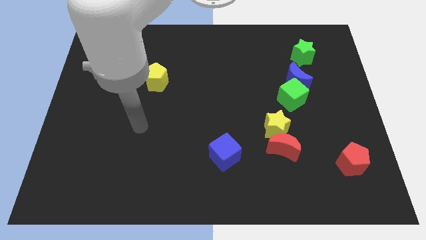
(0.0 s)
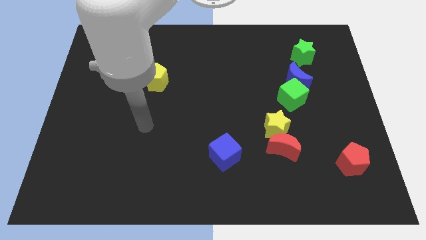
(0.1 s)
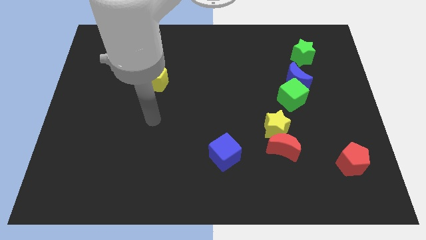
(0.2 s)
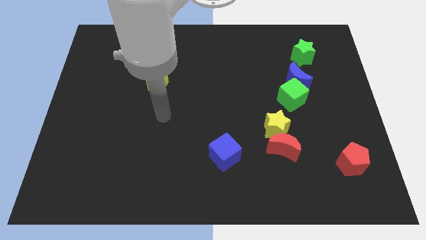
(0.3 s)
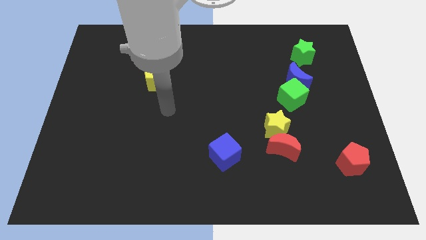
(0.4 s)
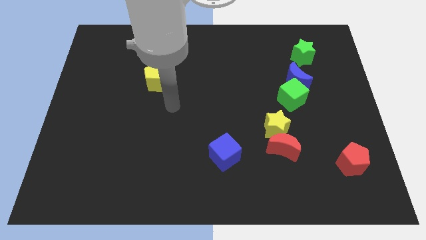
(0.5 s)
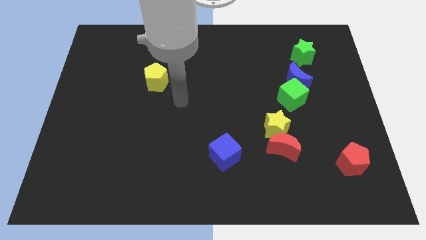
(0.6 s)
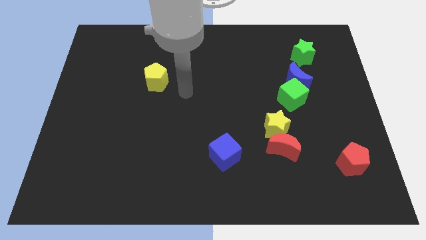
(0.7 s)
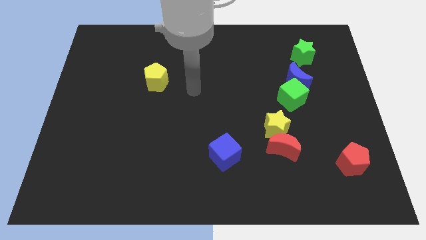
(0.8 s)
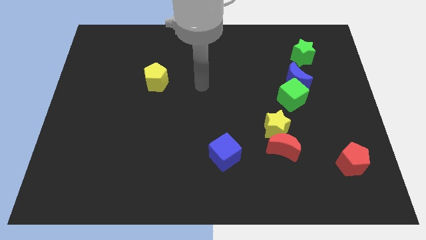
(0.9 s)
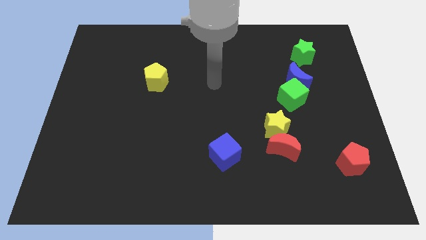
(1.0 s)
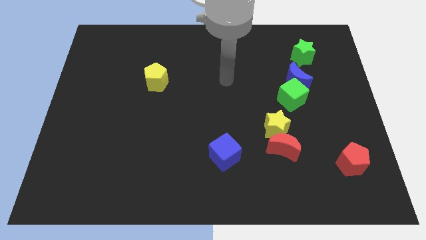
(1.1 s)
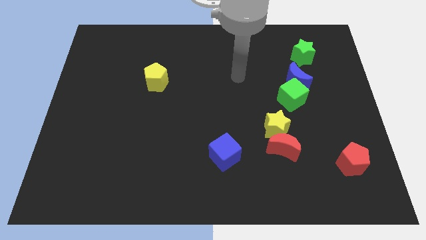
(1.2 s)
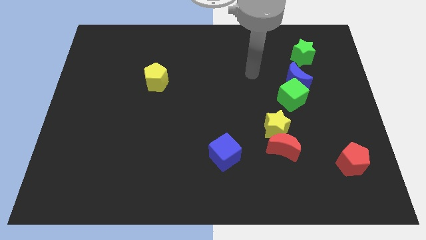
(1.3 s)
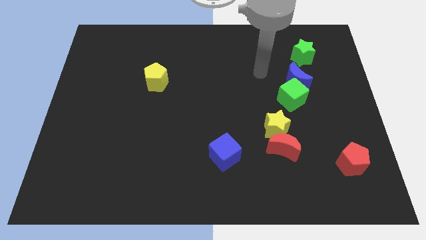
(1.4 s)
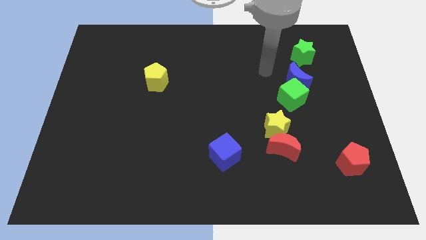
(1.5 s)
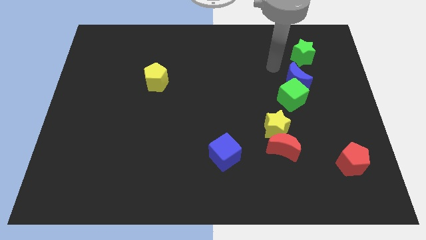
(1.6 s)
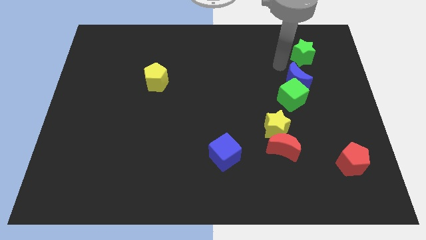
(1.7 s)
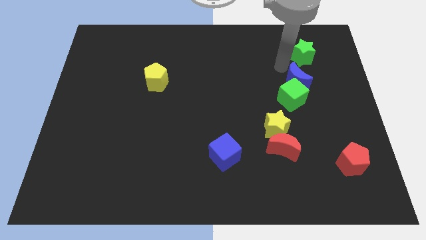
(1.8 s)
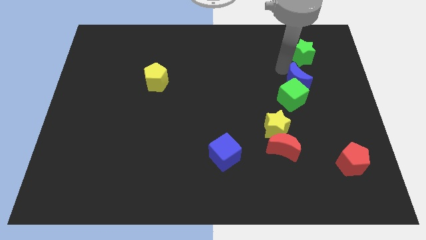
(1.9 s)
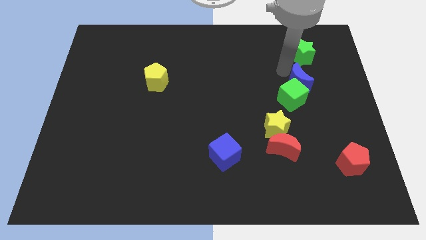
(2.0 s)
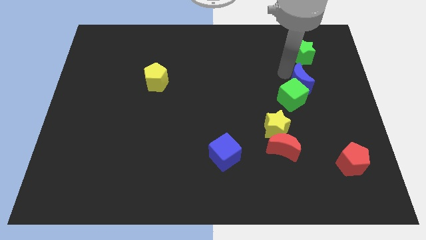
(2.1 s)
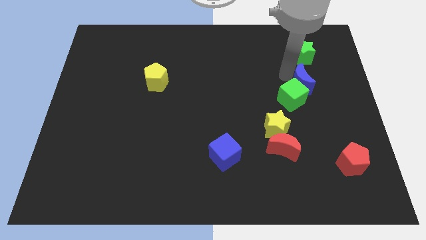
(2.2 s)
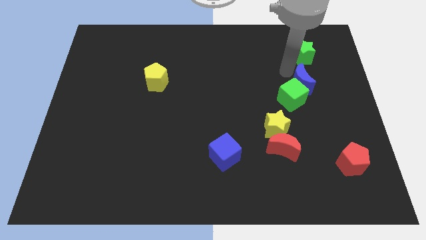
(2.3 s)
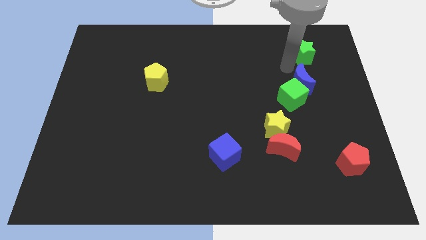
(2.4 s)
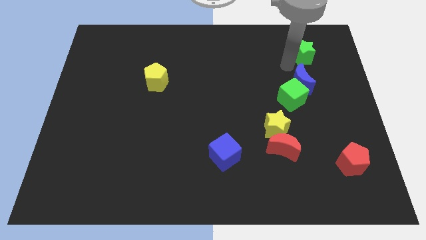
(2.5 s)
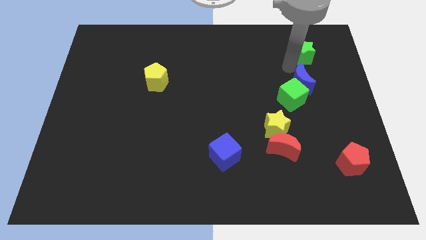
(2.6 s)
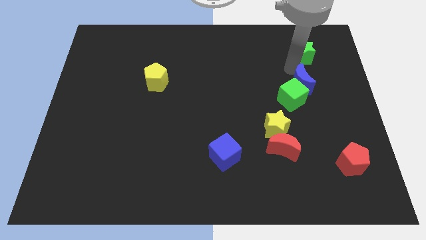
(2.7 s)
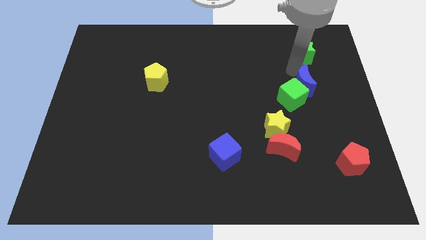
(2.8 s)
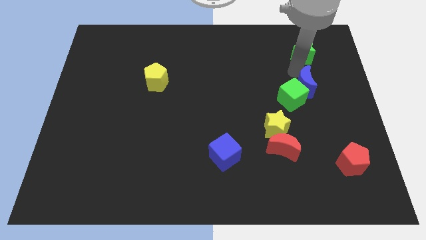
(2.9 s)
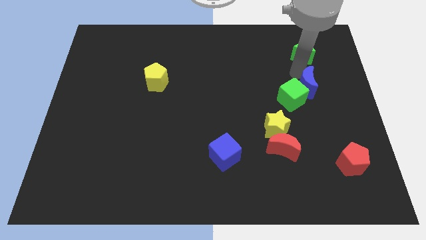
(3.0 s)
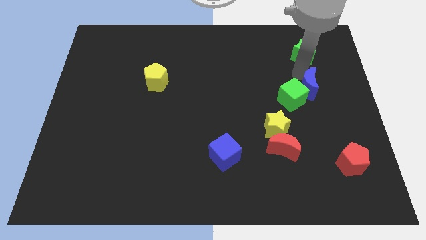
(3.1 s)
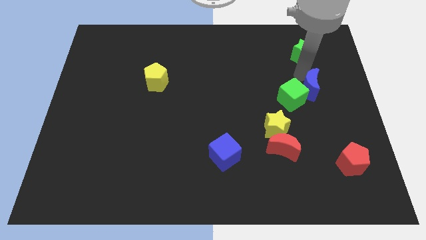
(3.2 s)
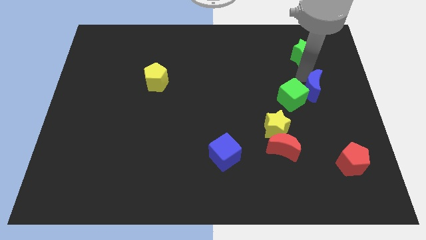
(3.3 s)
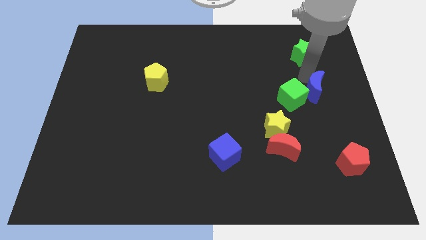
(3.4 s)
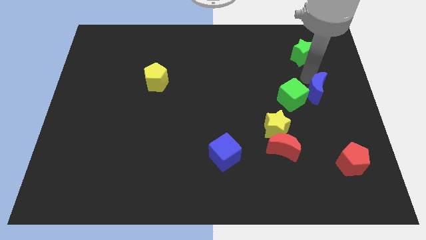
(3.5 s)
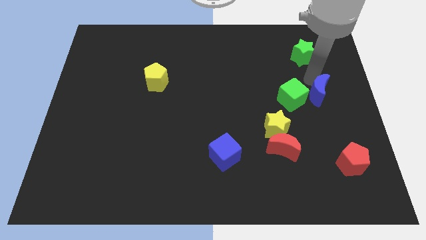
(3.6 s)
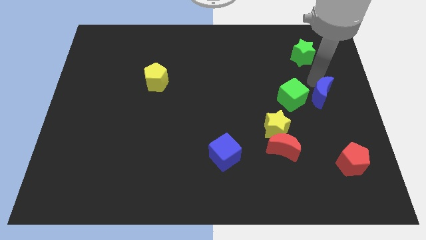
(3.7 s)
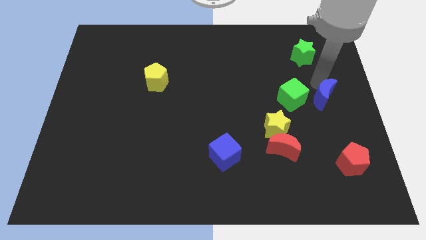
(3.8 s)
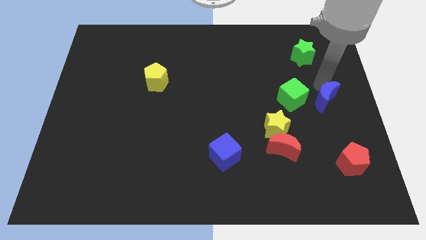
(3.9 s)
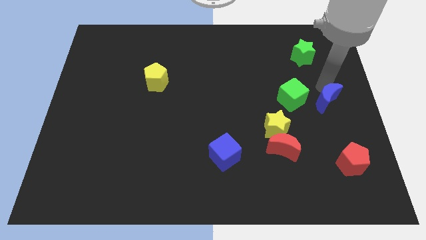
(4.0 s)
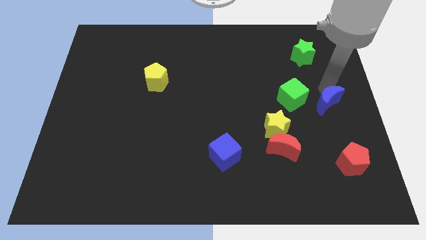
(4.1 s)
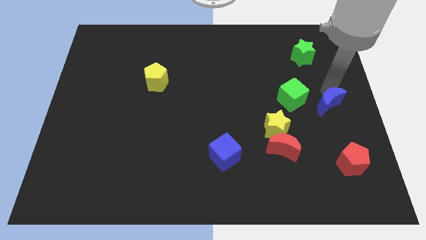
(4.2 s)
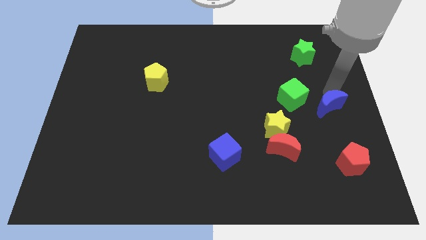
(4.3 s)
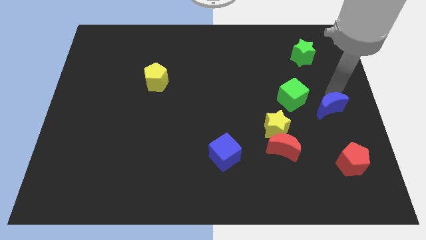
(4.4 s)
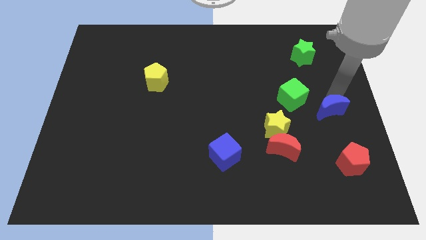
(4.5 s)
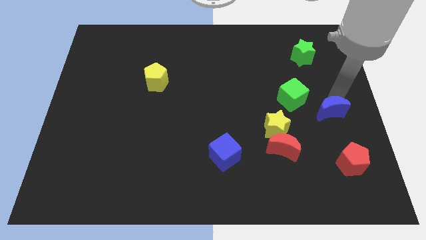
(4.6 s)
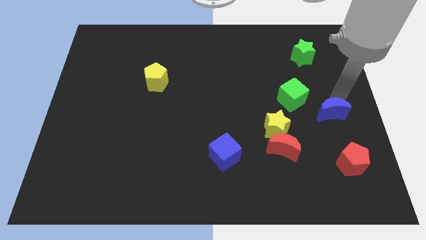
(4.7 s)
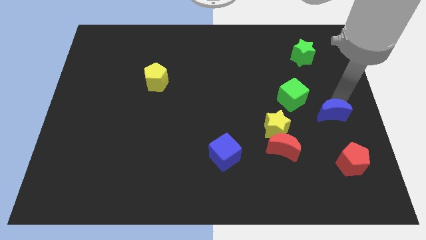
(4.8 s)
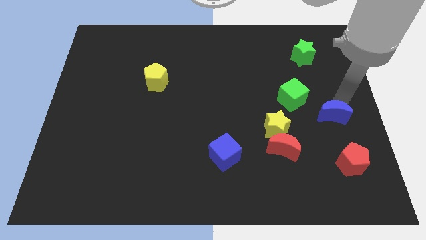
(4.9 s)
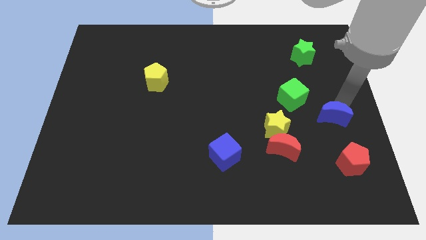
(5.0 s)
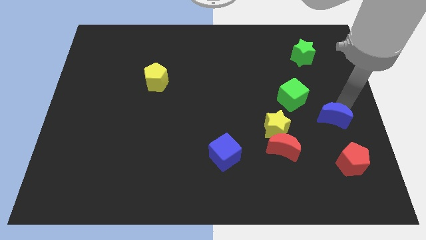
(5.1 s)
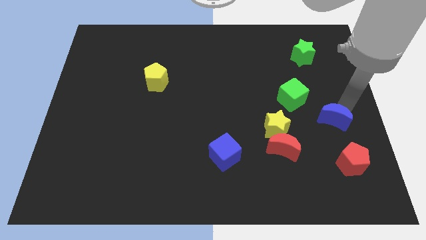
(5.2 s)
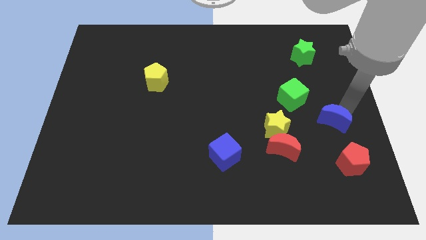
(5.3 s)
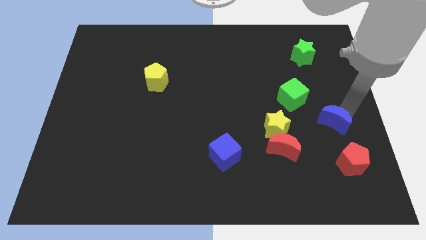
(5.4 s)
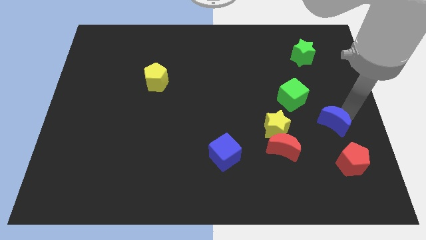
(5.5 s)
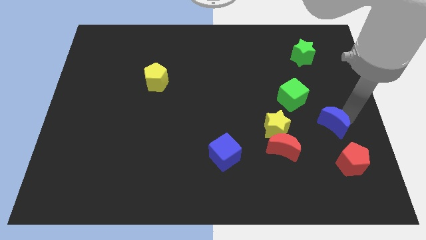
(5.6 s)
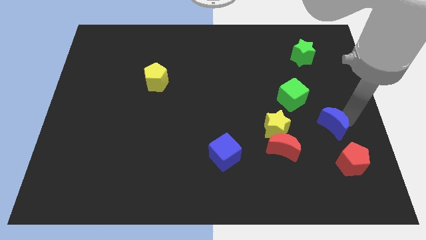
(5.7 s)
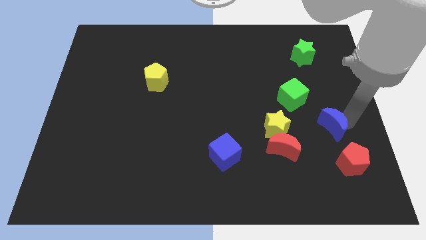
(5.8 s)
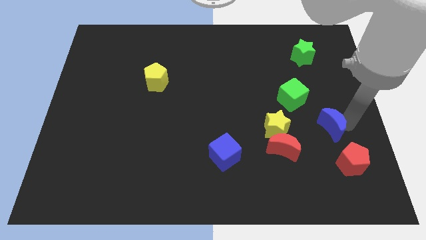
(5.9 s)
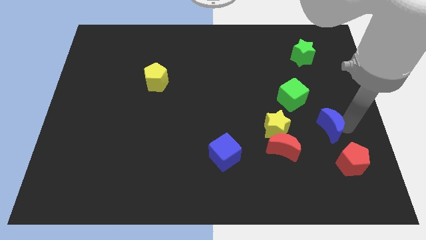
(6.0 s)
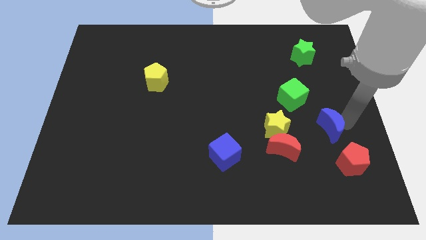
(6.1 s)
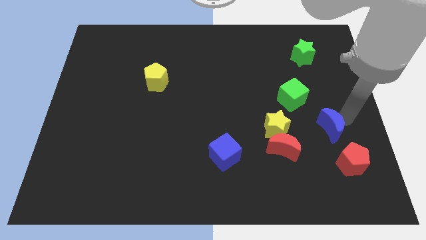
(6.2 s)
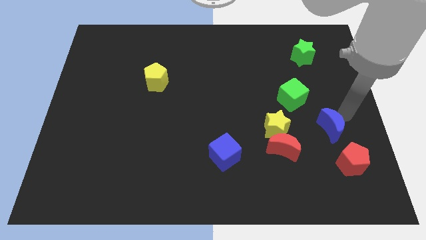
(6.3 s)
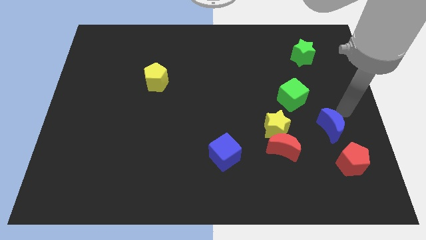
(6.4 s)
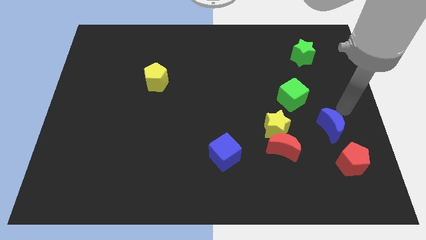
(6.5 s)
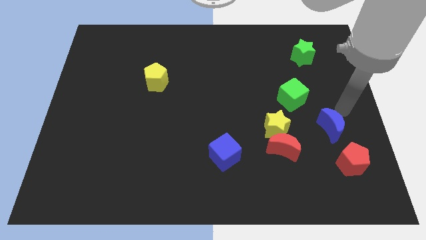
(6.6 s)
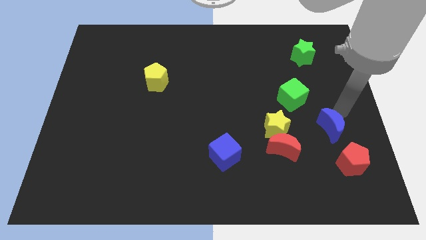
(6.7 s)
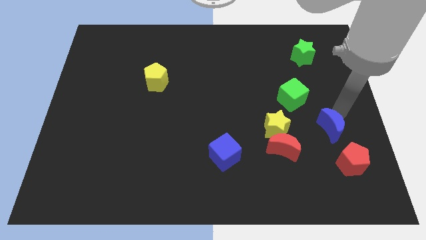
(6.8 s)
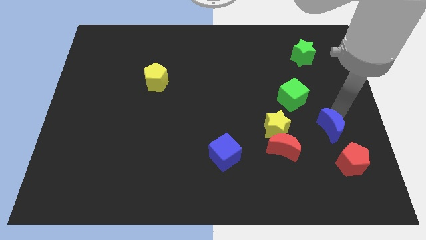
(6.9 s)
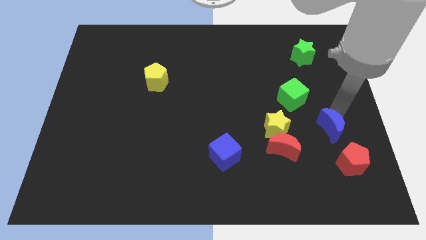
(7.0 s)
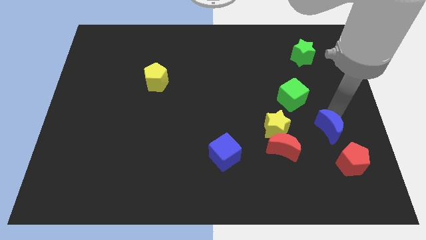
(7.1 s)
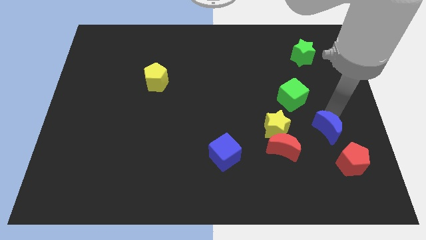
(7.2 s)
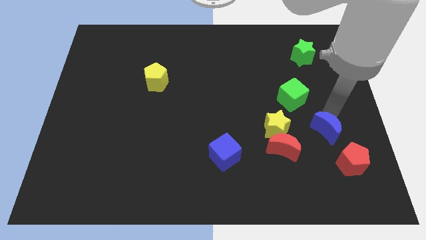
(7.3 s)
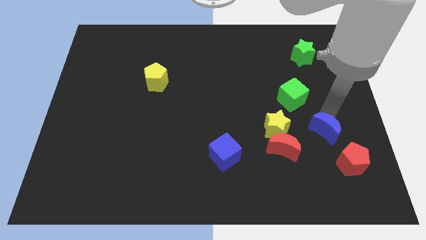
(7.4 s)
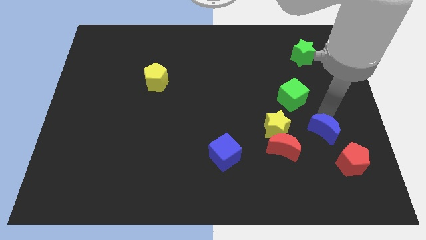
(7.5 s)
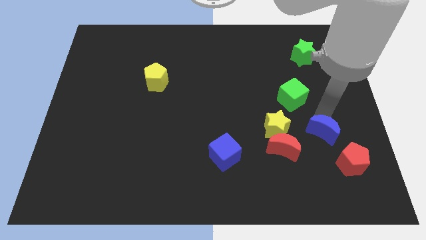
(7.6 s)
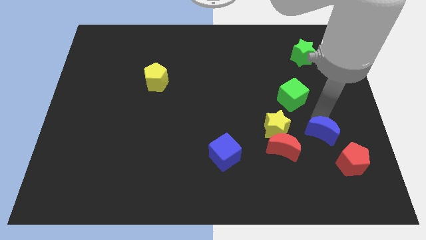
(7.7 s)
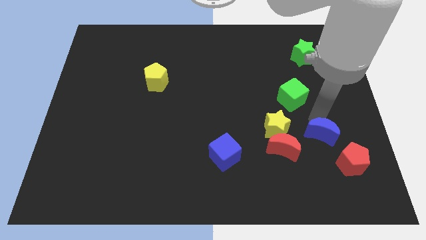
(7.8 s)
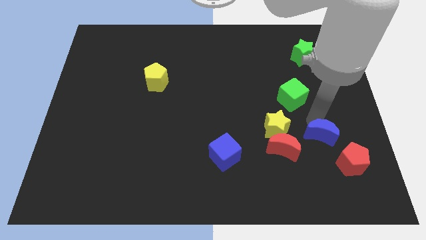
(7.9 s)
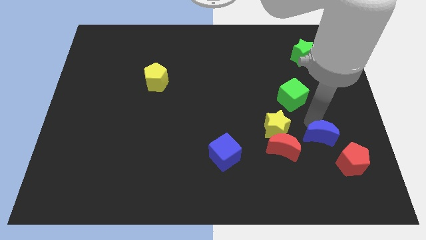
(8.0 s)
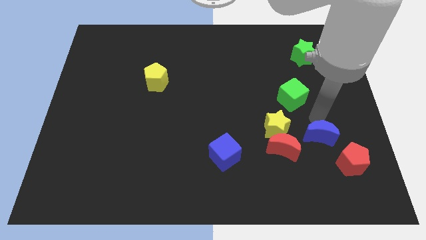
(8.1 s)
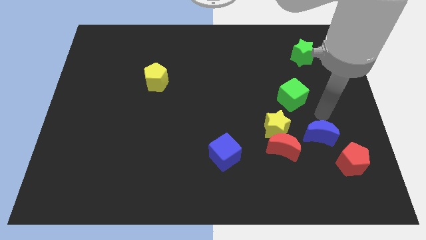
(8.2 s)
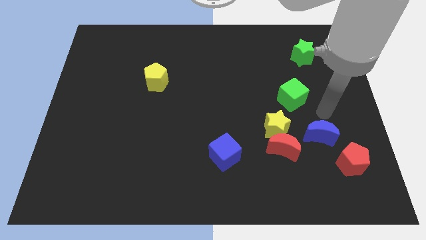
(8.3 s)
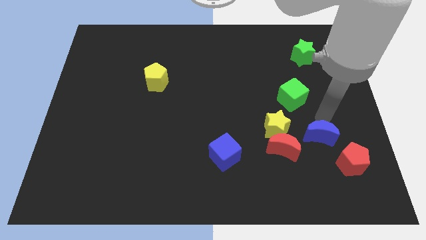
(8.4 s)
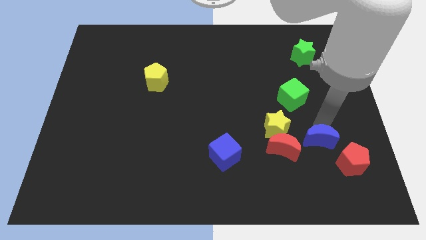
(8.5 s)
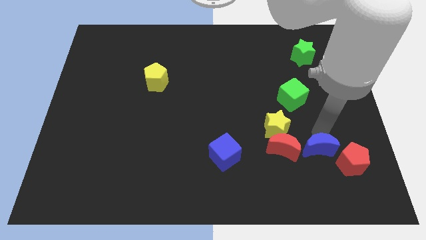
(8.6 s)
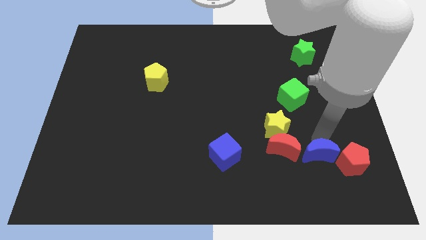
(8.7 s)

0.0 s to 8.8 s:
push the blue moon to the bottom right side of the red moon
